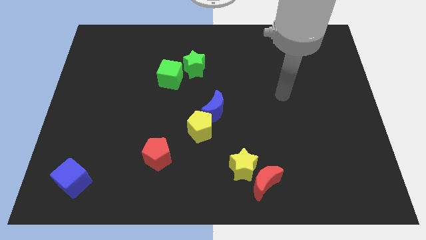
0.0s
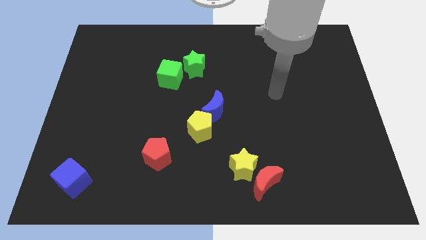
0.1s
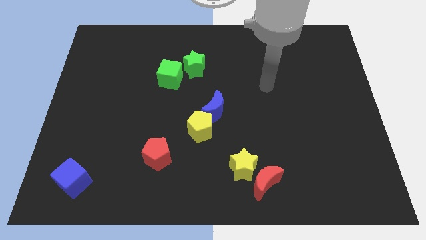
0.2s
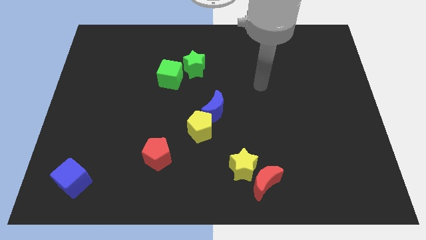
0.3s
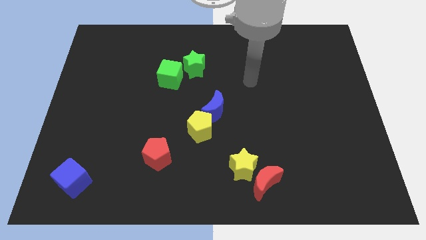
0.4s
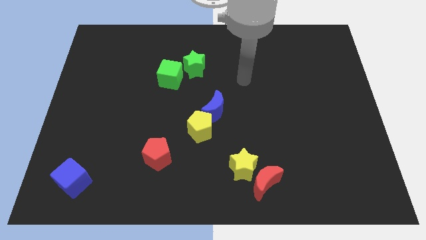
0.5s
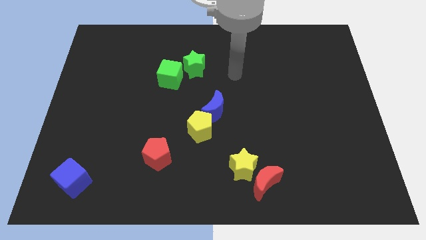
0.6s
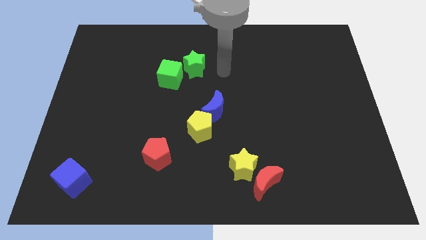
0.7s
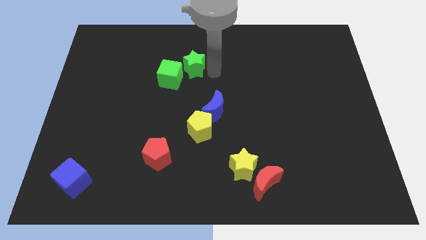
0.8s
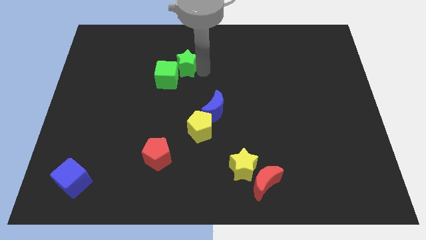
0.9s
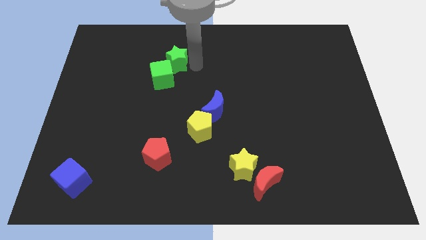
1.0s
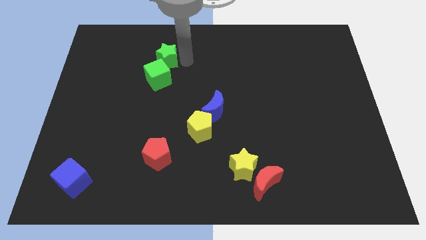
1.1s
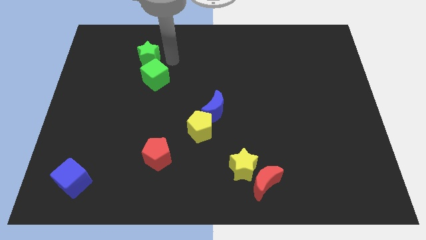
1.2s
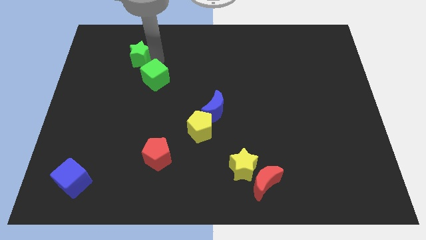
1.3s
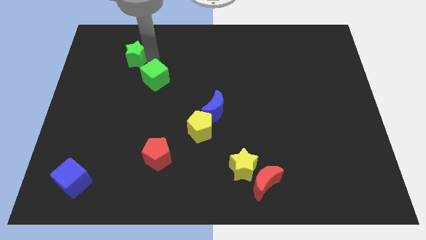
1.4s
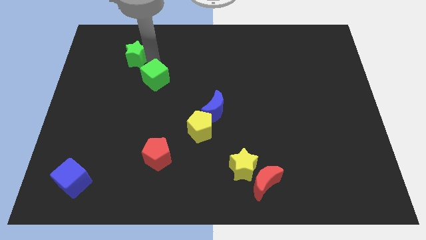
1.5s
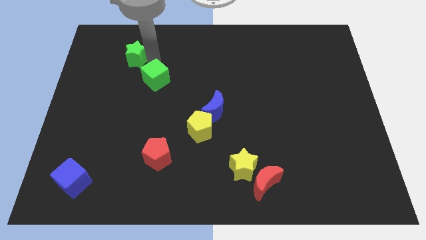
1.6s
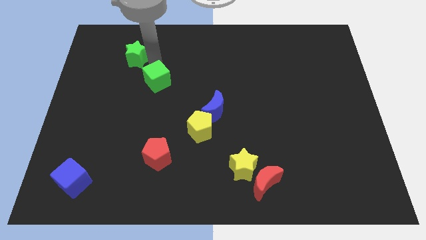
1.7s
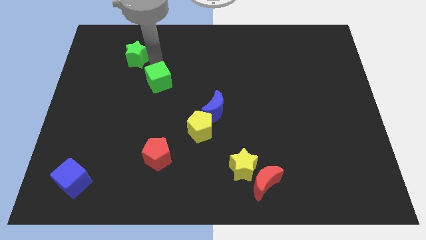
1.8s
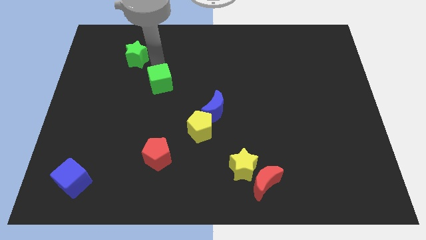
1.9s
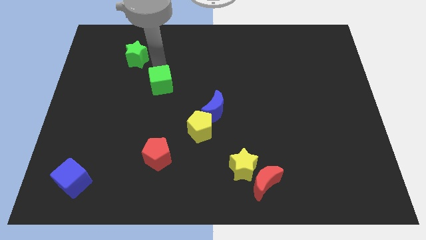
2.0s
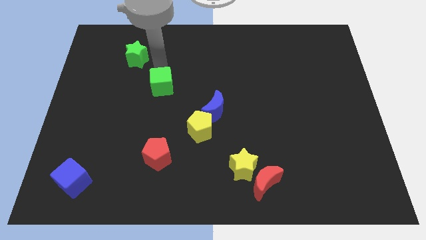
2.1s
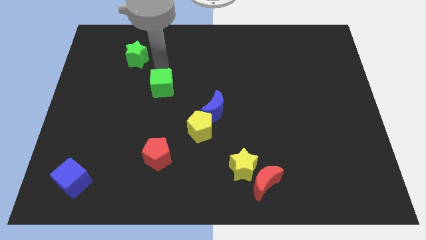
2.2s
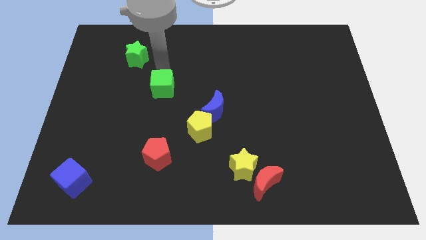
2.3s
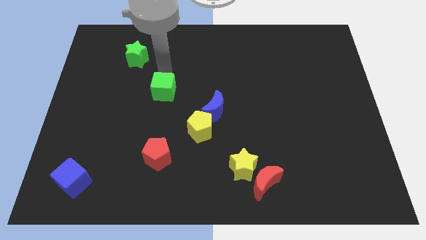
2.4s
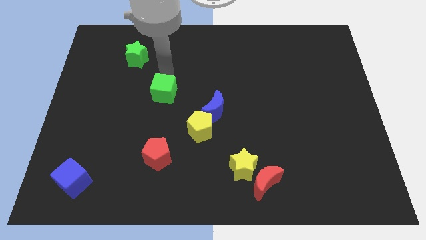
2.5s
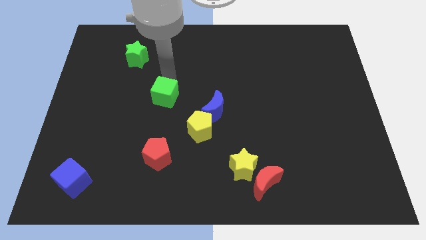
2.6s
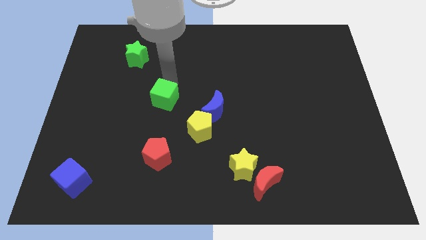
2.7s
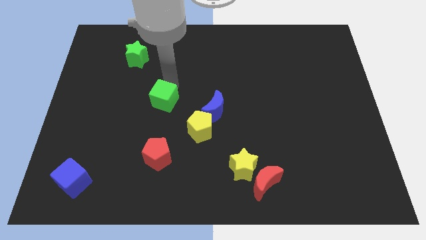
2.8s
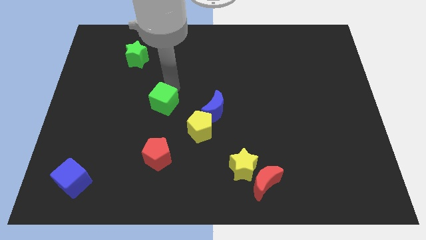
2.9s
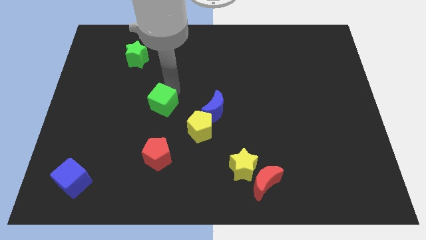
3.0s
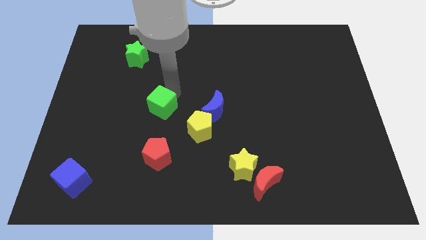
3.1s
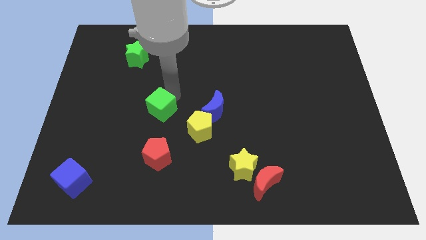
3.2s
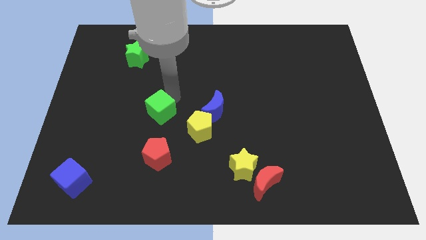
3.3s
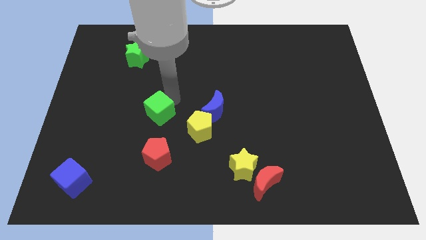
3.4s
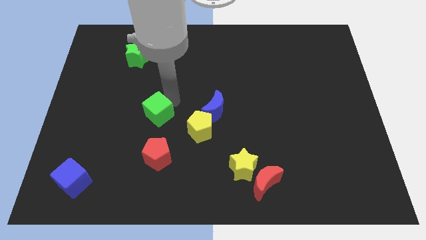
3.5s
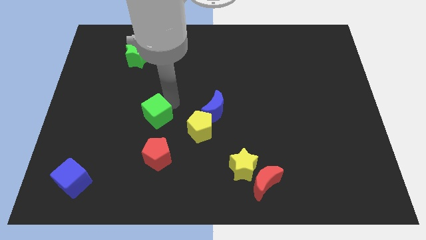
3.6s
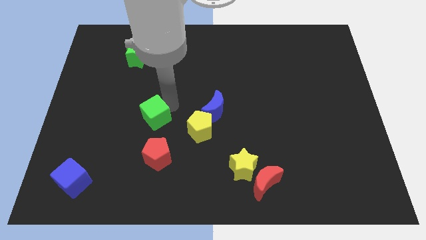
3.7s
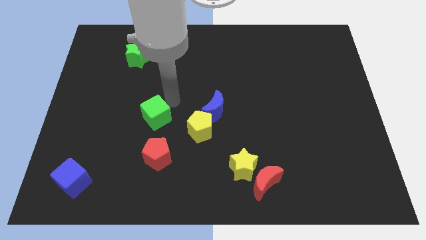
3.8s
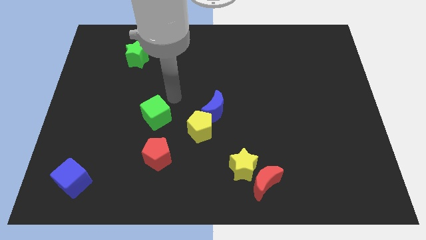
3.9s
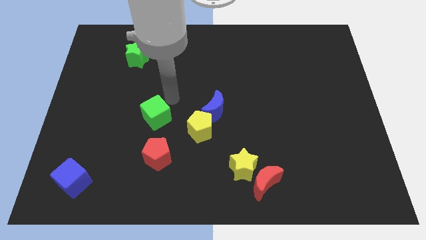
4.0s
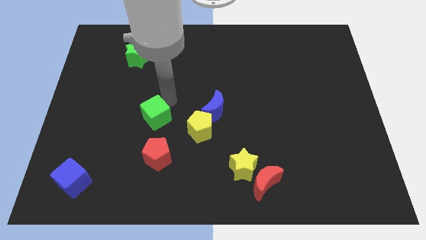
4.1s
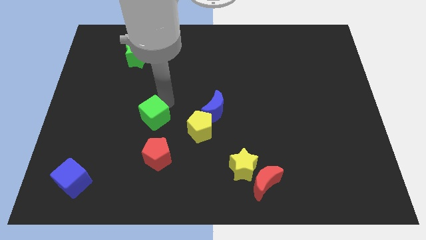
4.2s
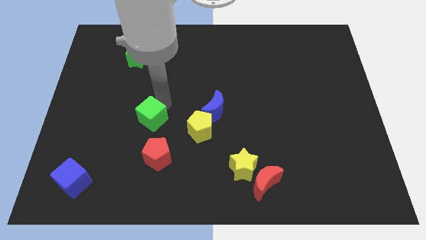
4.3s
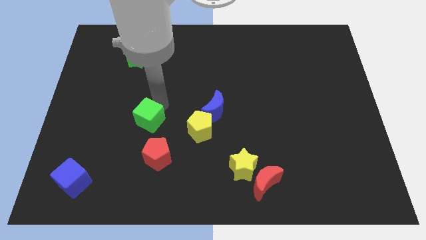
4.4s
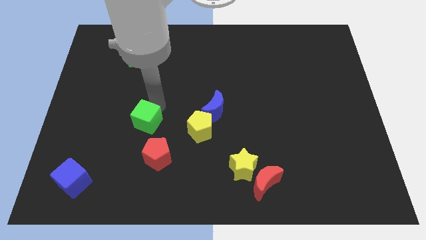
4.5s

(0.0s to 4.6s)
slide the green cube to the top left of the red pentagon

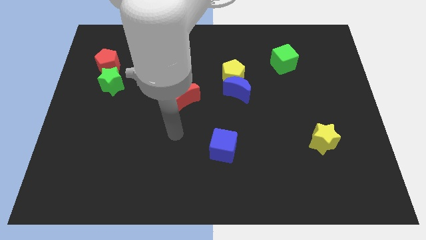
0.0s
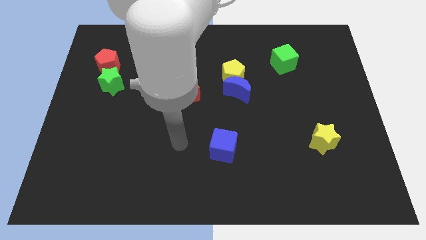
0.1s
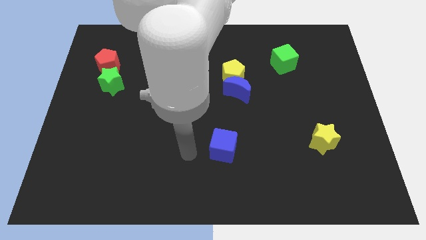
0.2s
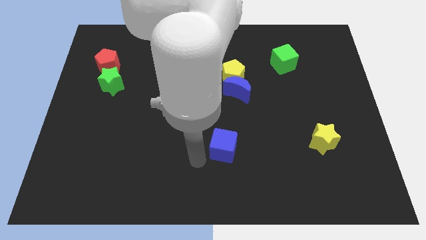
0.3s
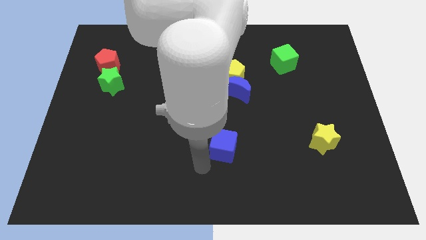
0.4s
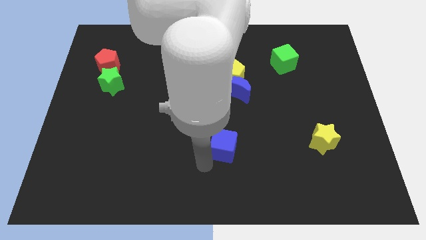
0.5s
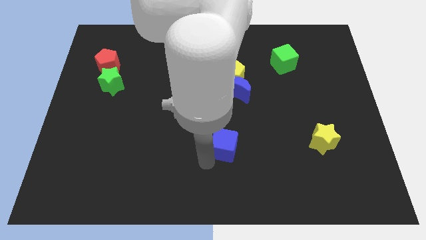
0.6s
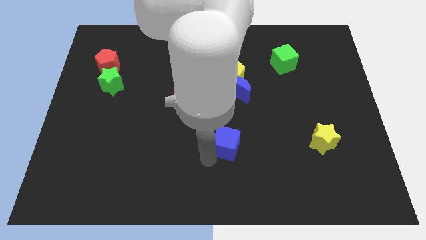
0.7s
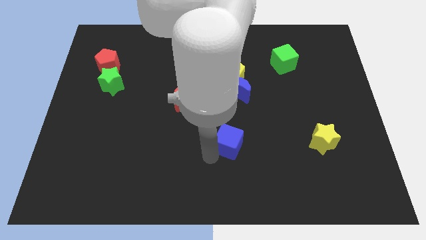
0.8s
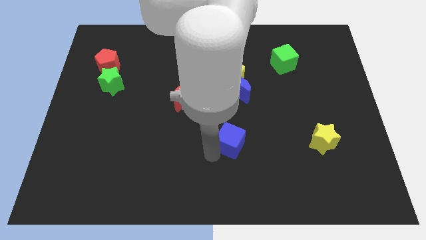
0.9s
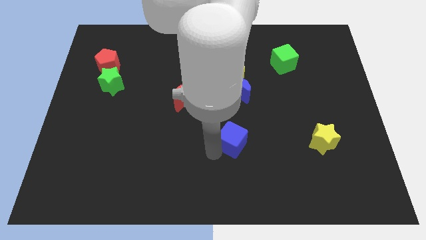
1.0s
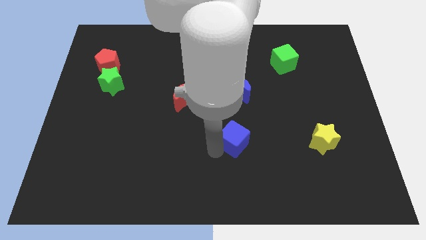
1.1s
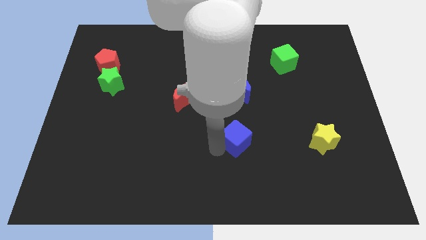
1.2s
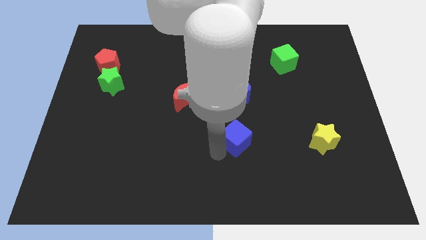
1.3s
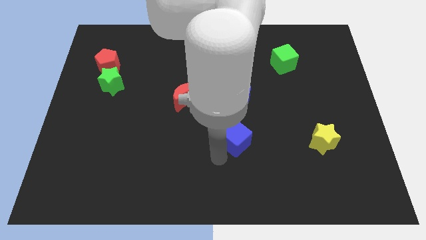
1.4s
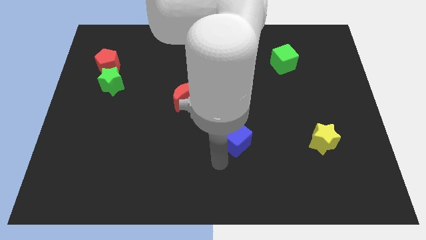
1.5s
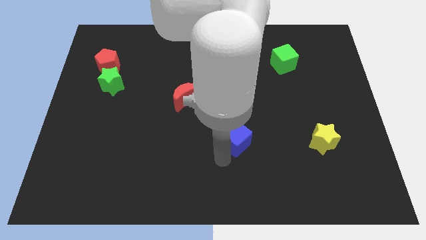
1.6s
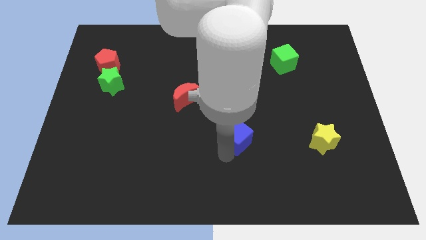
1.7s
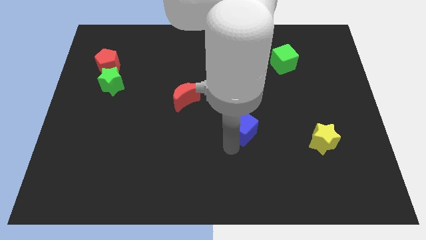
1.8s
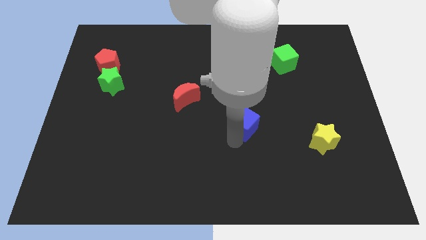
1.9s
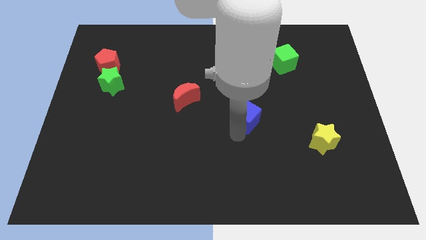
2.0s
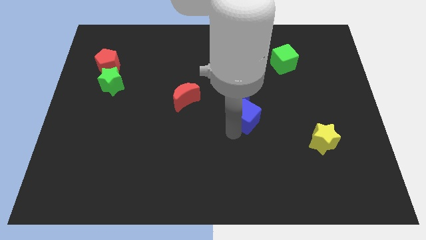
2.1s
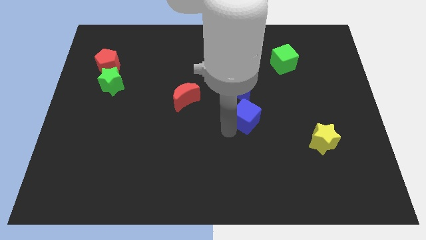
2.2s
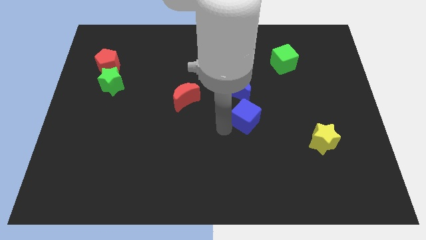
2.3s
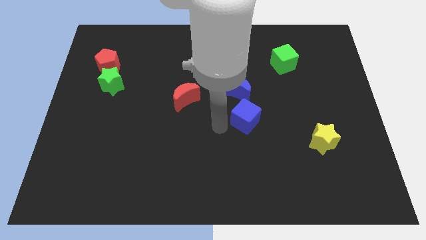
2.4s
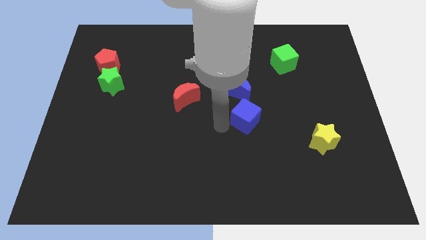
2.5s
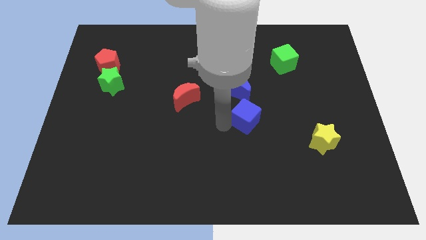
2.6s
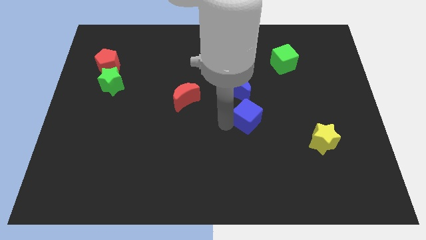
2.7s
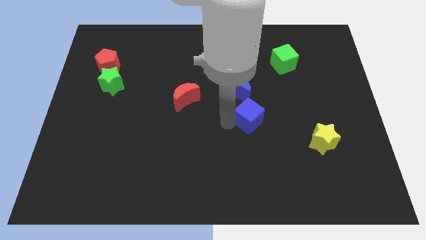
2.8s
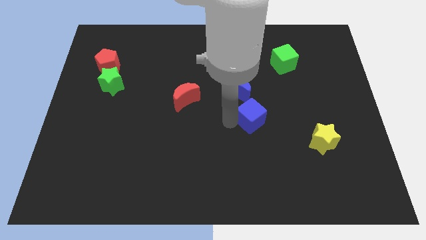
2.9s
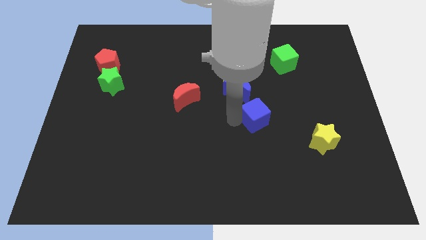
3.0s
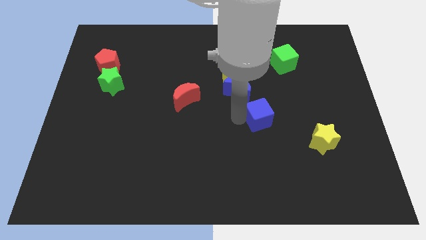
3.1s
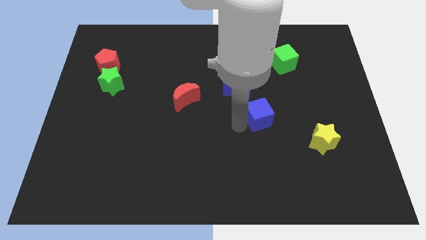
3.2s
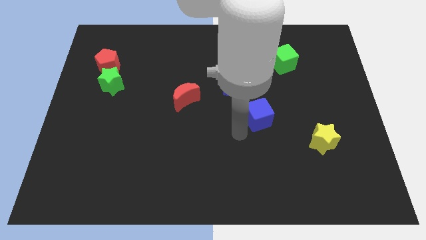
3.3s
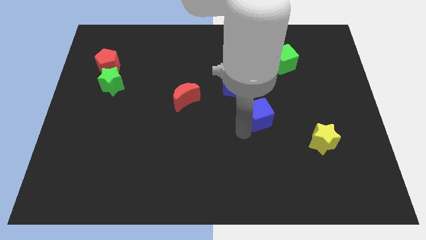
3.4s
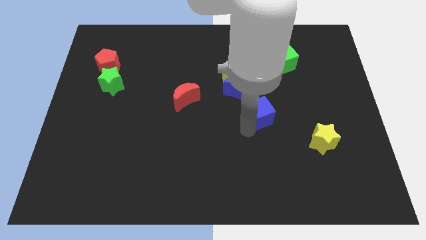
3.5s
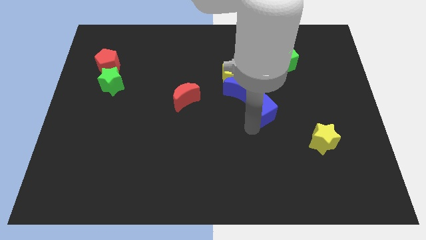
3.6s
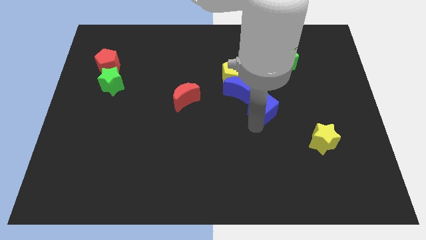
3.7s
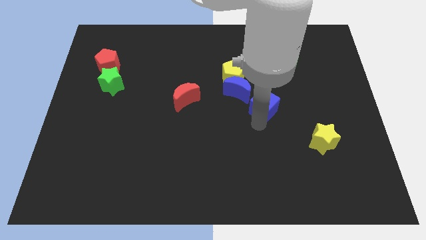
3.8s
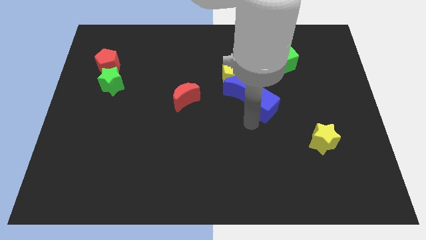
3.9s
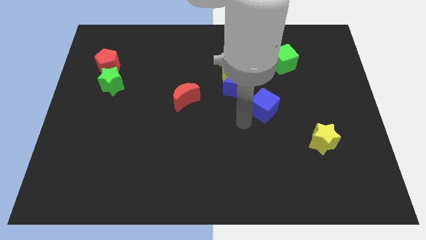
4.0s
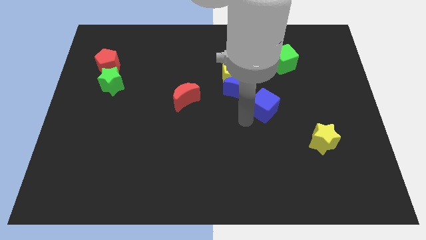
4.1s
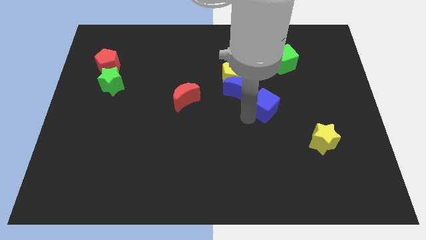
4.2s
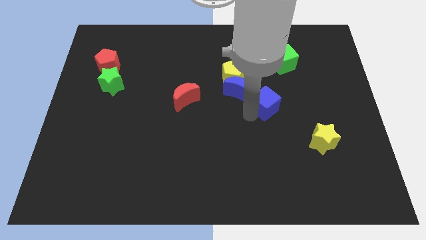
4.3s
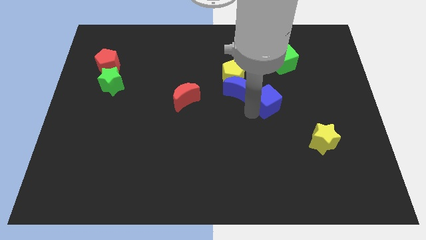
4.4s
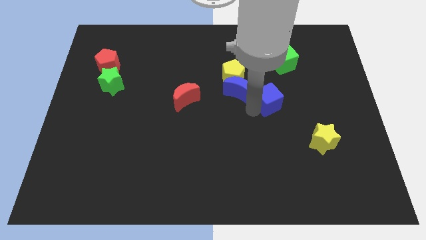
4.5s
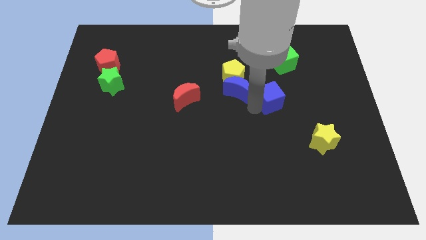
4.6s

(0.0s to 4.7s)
put the blue cube below the green cube
